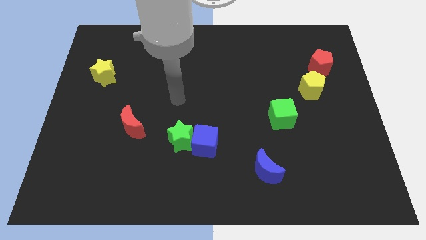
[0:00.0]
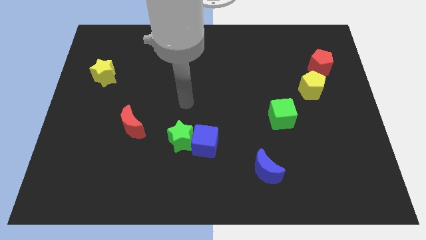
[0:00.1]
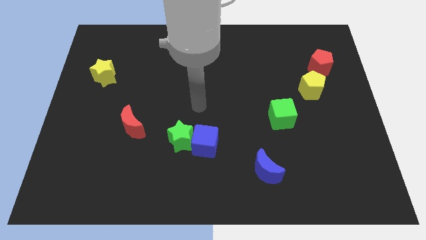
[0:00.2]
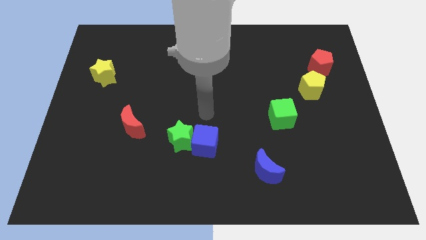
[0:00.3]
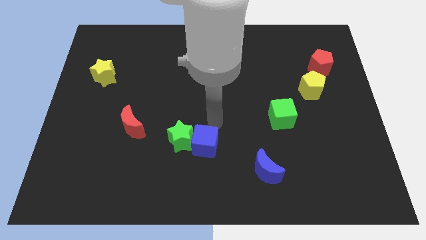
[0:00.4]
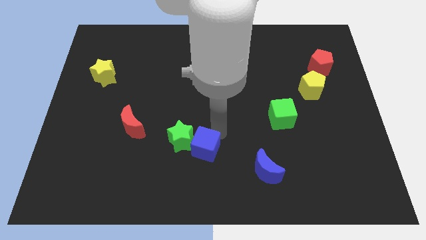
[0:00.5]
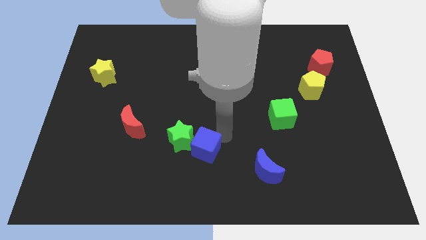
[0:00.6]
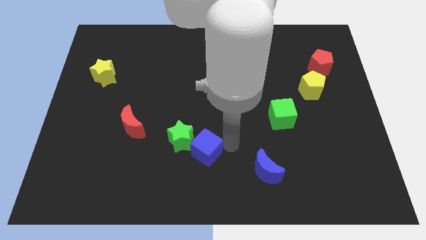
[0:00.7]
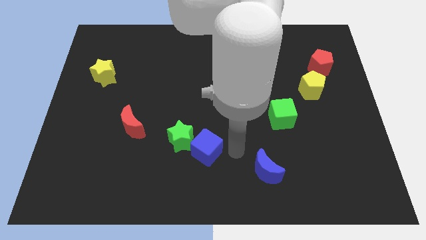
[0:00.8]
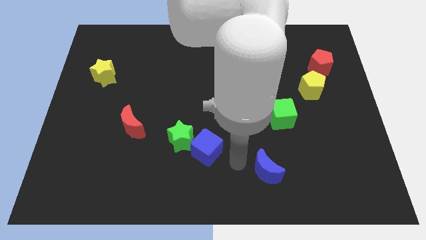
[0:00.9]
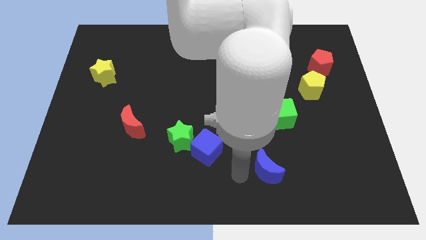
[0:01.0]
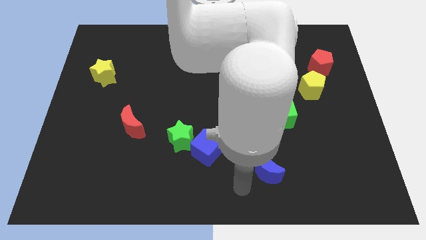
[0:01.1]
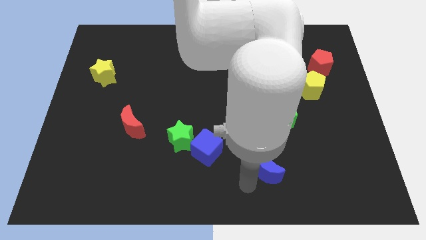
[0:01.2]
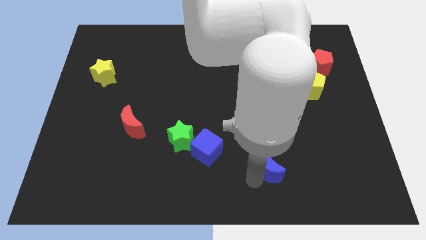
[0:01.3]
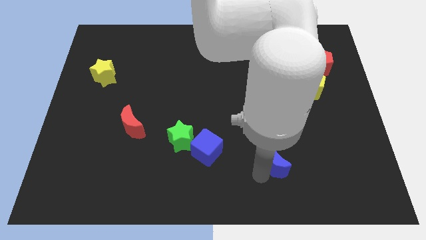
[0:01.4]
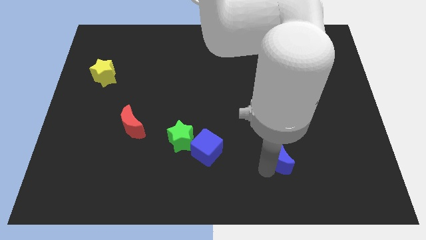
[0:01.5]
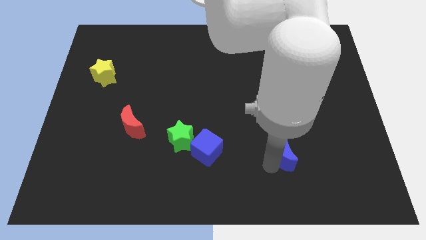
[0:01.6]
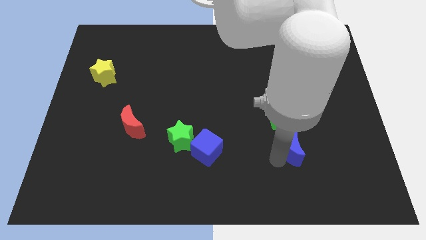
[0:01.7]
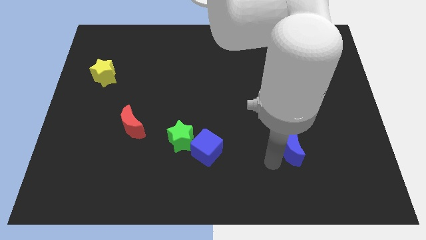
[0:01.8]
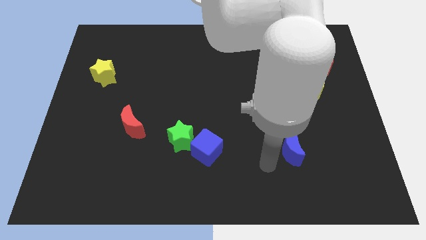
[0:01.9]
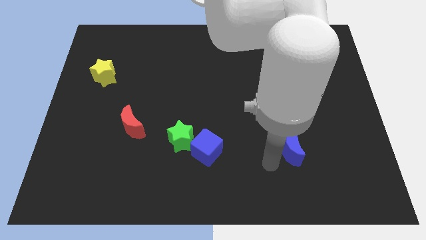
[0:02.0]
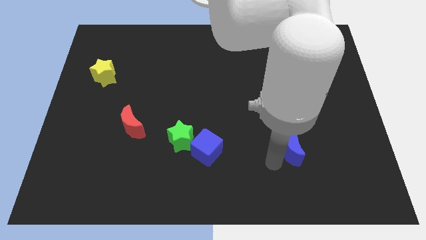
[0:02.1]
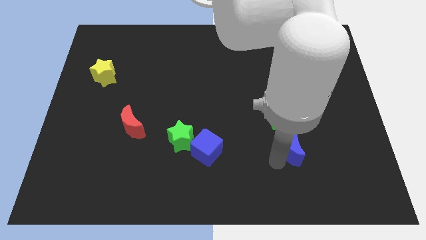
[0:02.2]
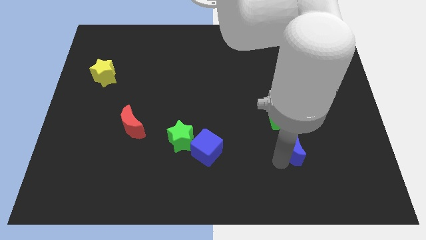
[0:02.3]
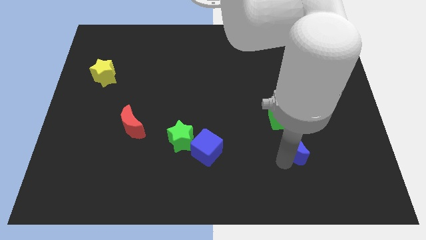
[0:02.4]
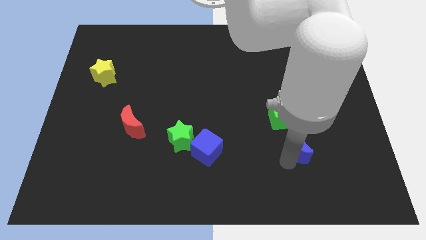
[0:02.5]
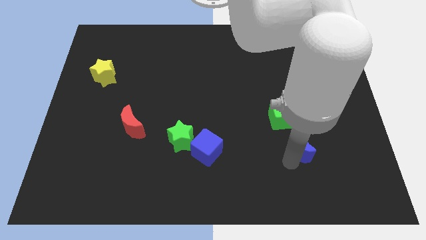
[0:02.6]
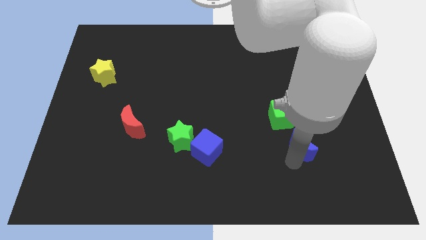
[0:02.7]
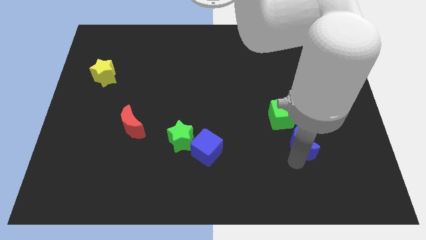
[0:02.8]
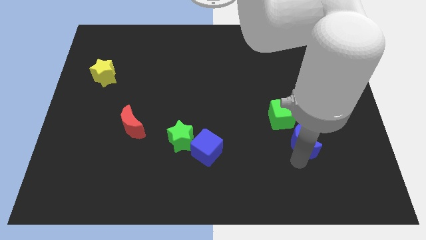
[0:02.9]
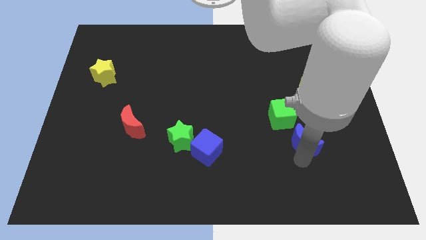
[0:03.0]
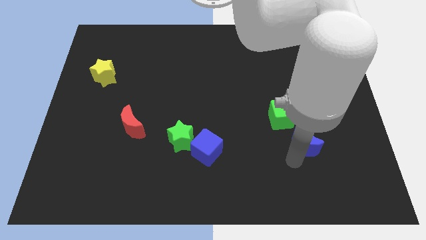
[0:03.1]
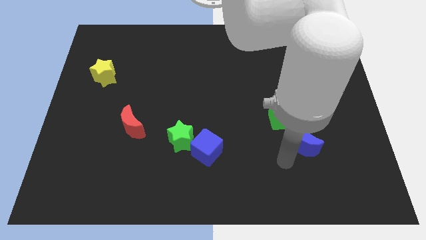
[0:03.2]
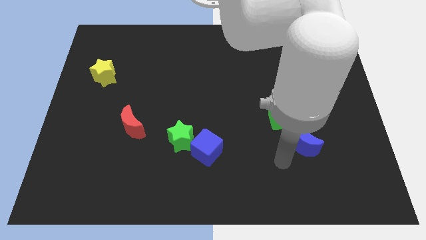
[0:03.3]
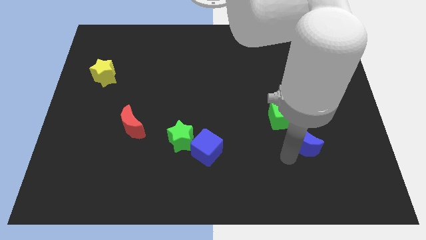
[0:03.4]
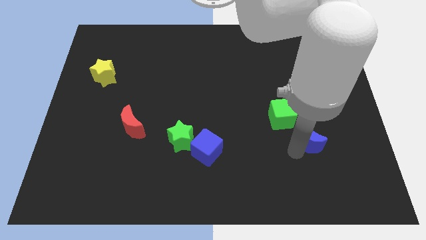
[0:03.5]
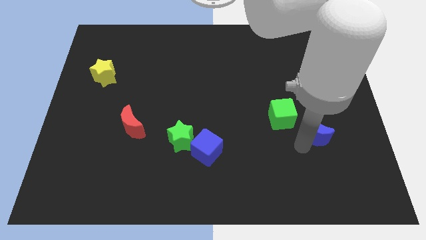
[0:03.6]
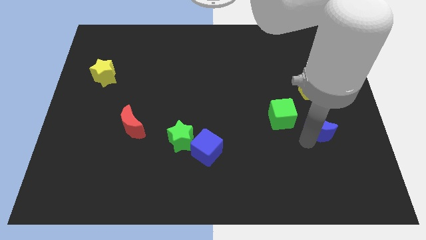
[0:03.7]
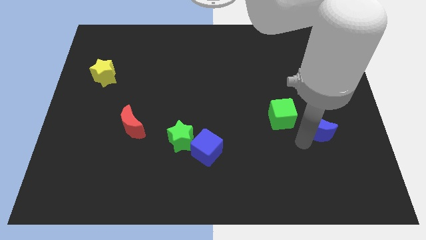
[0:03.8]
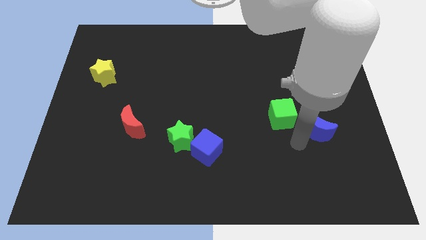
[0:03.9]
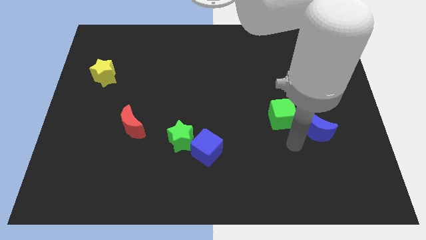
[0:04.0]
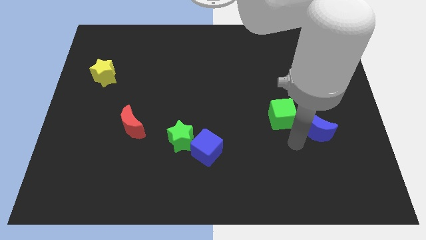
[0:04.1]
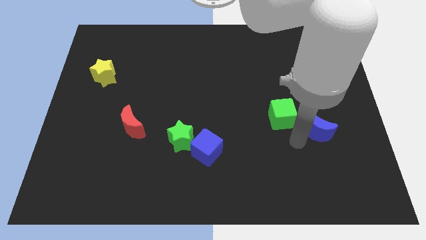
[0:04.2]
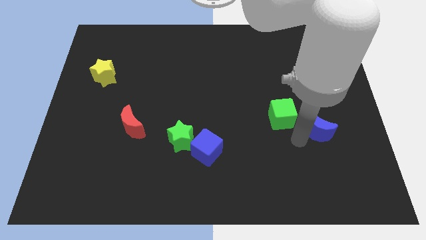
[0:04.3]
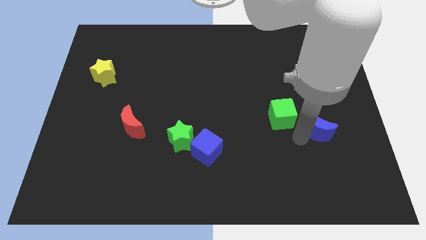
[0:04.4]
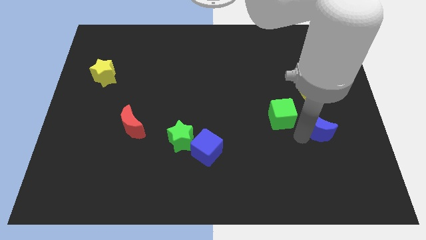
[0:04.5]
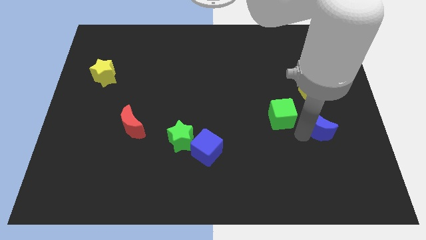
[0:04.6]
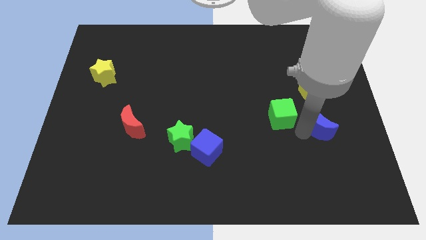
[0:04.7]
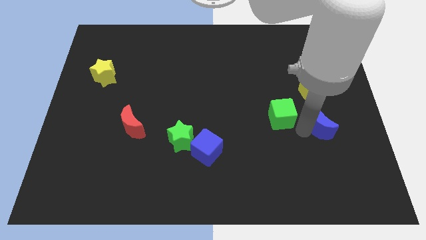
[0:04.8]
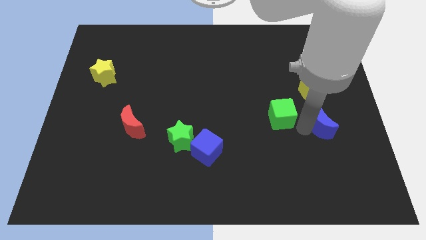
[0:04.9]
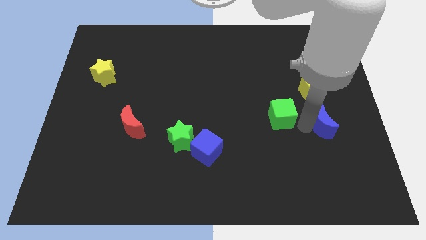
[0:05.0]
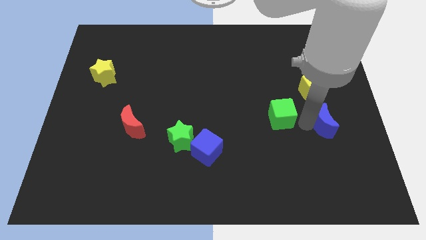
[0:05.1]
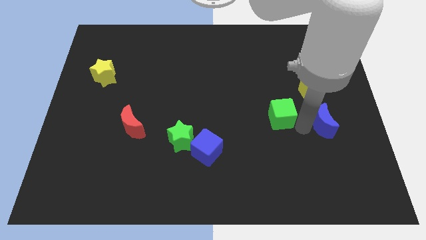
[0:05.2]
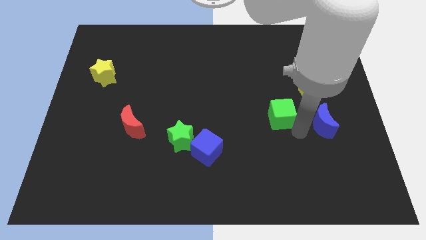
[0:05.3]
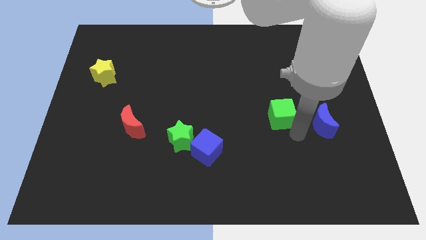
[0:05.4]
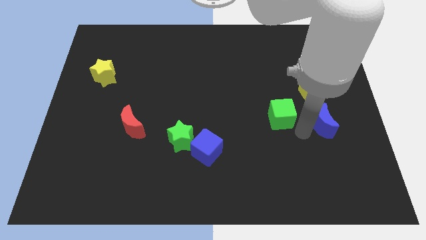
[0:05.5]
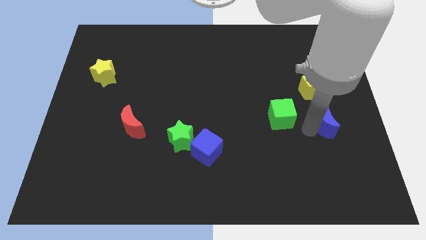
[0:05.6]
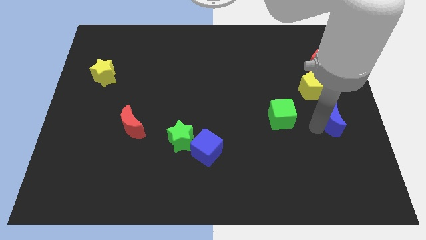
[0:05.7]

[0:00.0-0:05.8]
push the blue moon to the right side

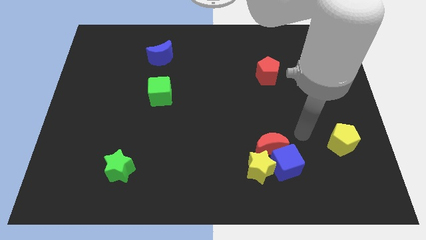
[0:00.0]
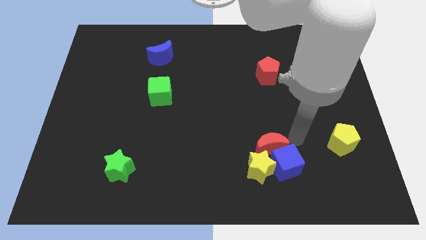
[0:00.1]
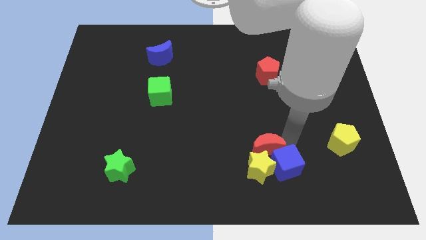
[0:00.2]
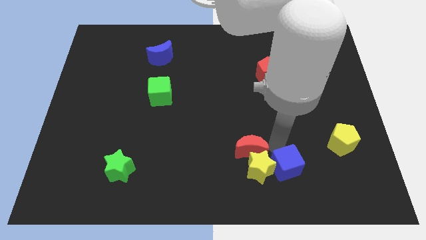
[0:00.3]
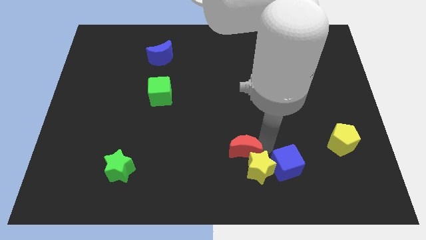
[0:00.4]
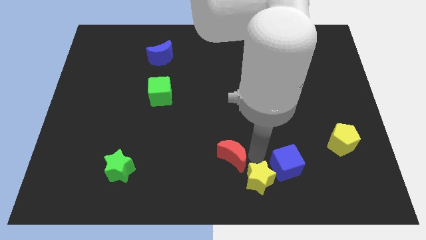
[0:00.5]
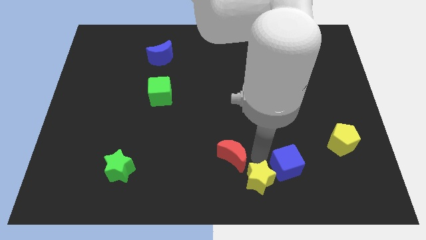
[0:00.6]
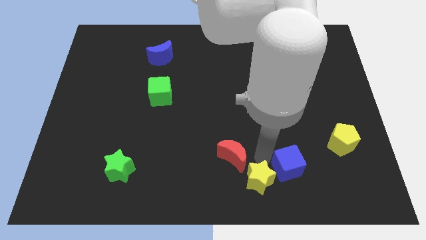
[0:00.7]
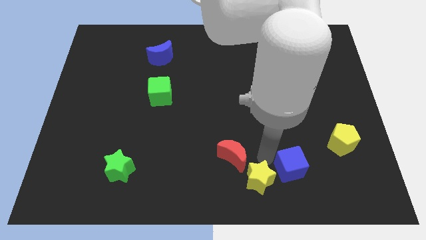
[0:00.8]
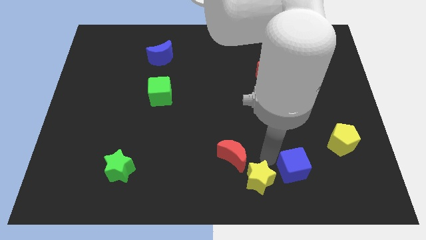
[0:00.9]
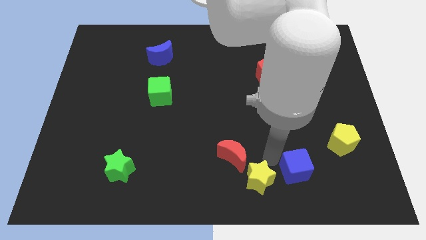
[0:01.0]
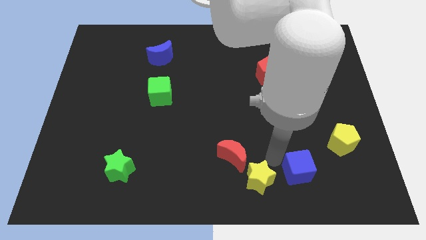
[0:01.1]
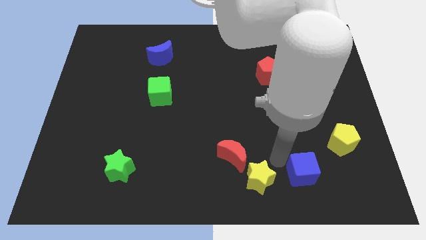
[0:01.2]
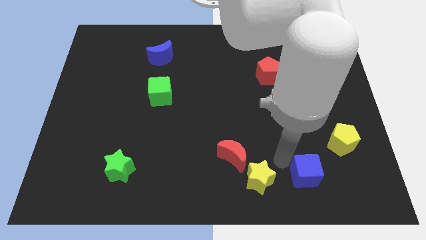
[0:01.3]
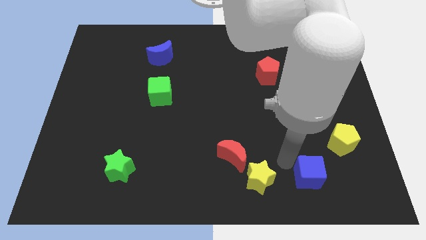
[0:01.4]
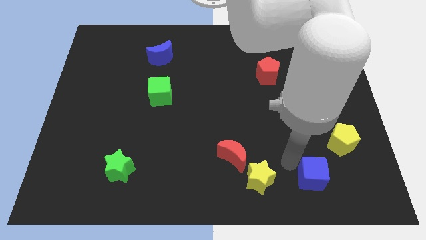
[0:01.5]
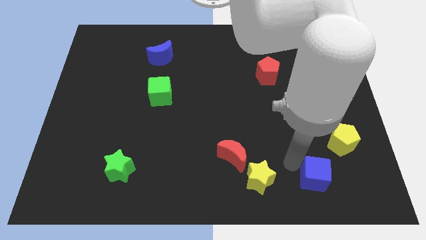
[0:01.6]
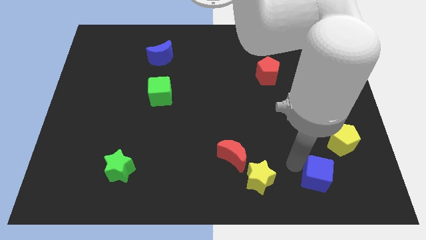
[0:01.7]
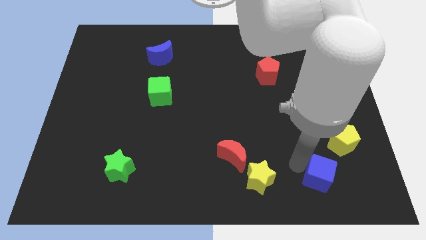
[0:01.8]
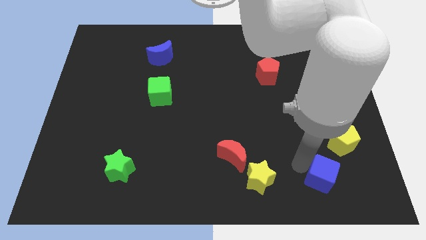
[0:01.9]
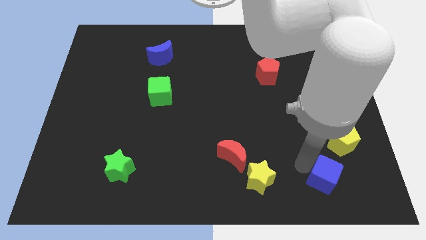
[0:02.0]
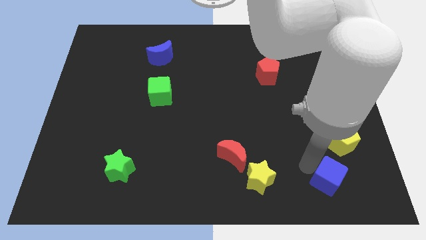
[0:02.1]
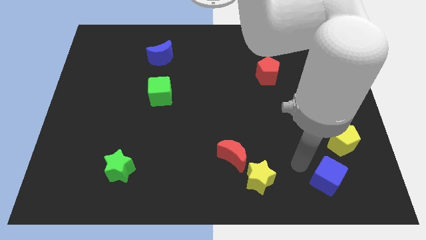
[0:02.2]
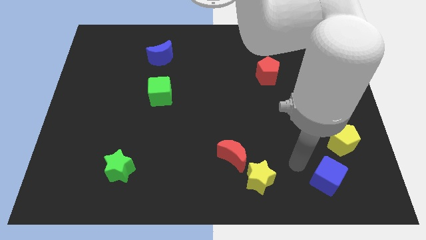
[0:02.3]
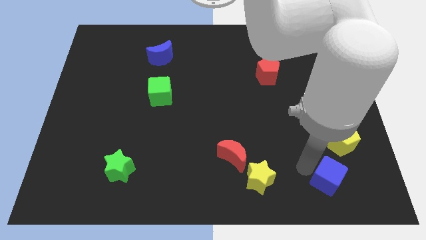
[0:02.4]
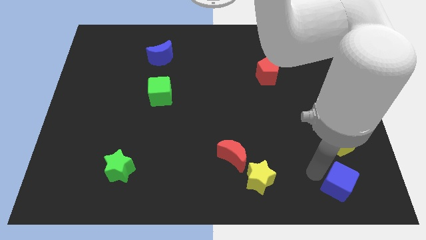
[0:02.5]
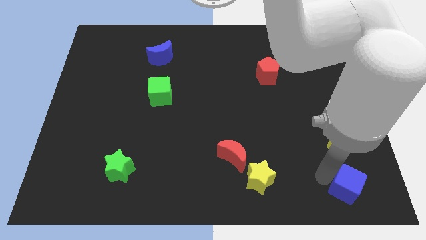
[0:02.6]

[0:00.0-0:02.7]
put the blue cube to the bottom right
